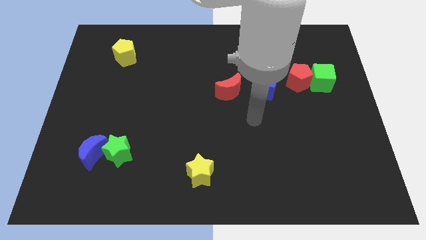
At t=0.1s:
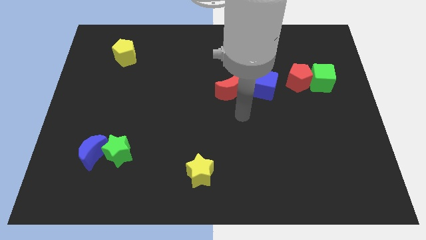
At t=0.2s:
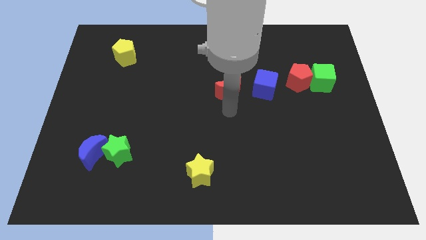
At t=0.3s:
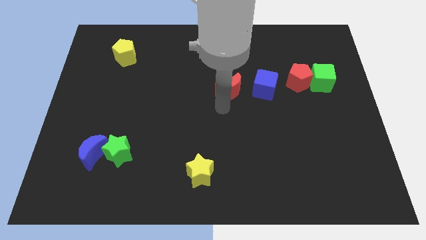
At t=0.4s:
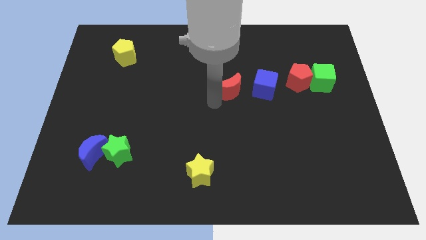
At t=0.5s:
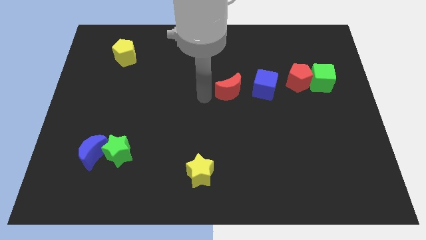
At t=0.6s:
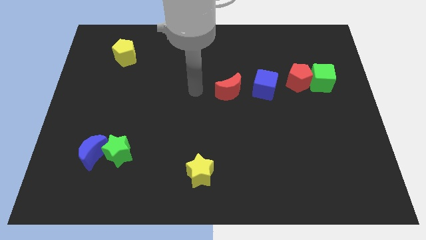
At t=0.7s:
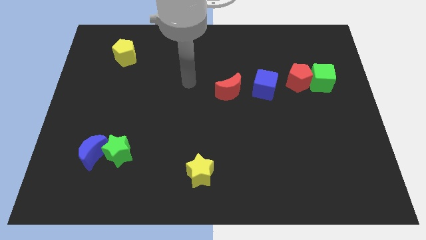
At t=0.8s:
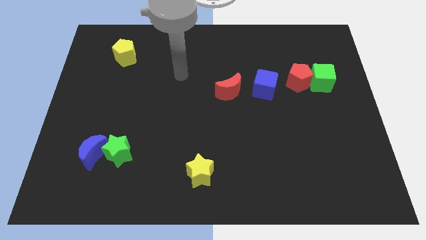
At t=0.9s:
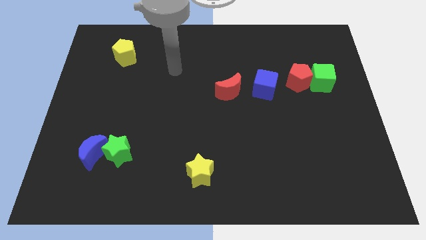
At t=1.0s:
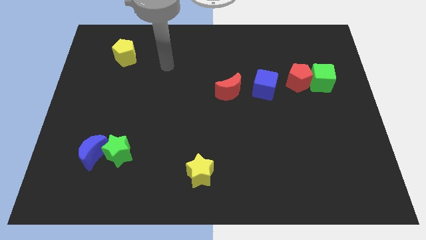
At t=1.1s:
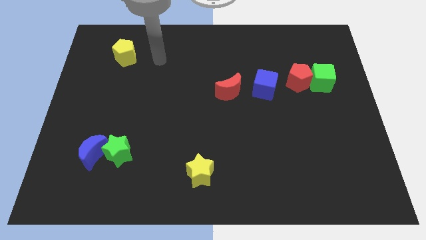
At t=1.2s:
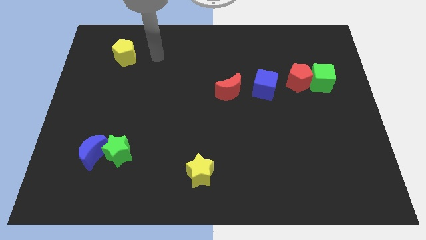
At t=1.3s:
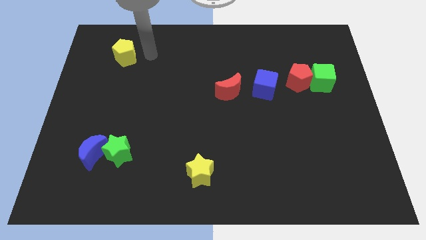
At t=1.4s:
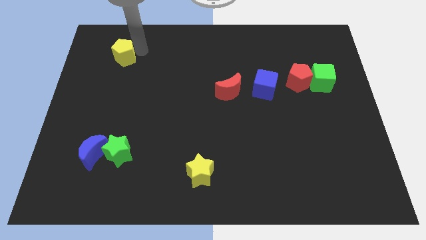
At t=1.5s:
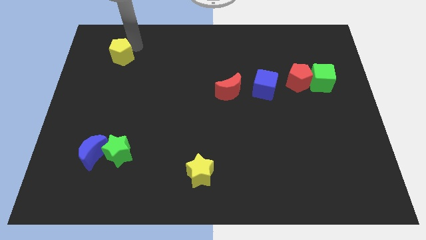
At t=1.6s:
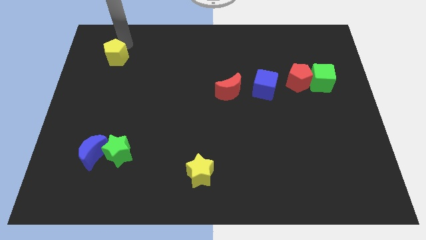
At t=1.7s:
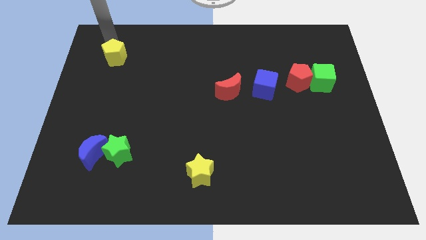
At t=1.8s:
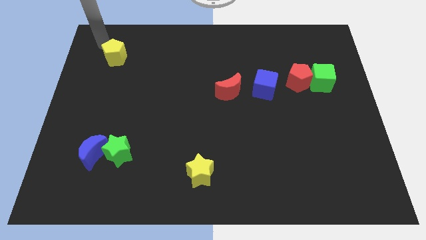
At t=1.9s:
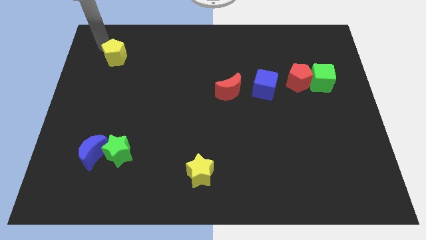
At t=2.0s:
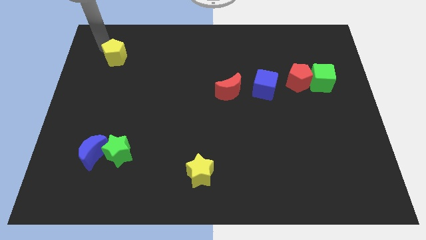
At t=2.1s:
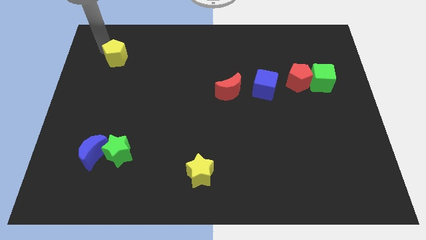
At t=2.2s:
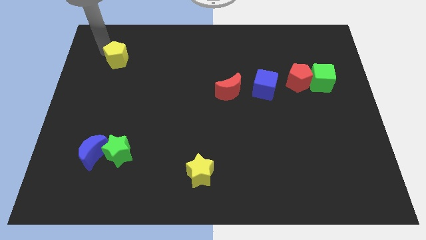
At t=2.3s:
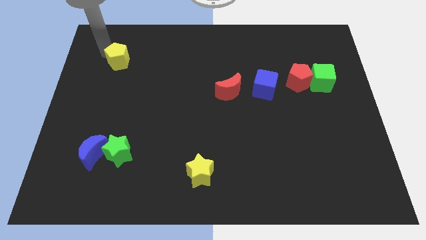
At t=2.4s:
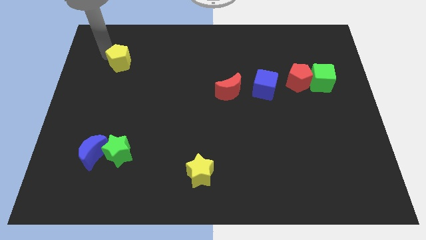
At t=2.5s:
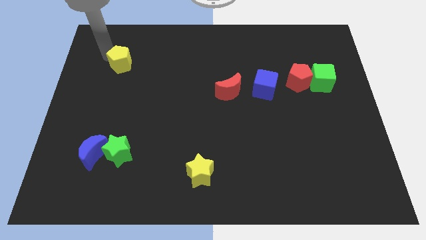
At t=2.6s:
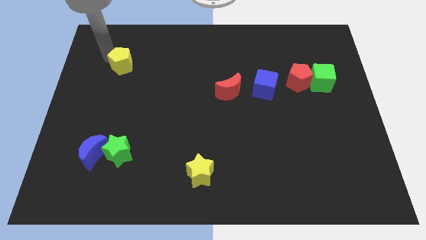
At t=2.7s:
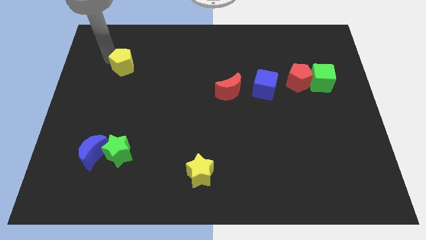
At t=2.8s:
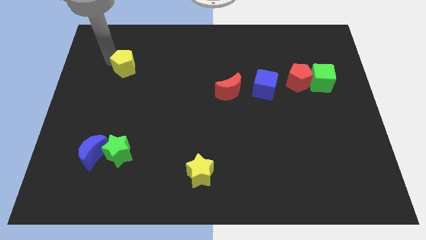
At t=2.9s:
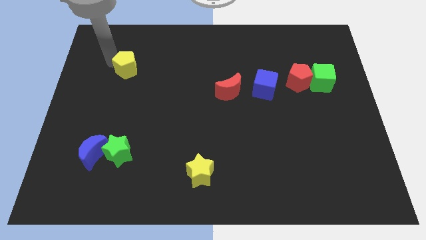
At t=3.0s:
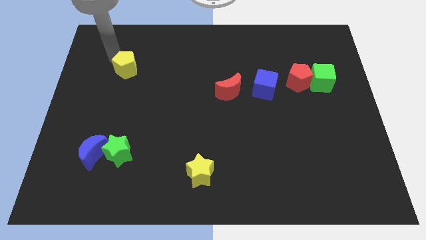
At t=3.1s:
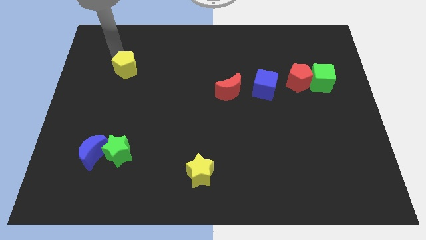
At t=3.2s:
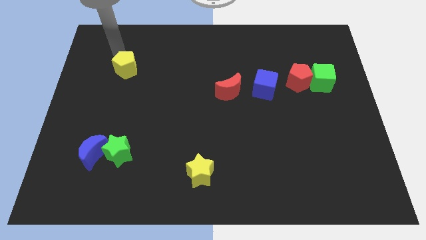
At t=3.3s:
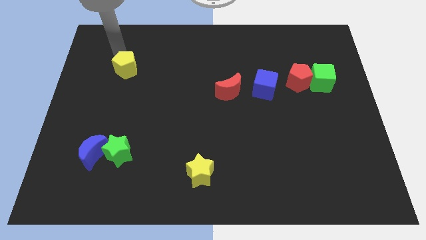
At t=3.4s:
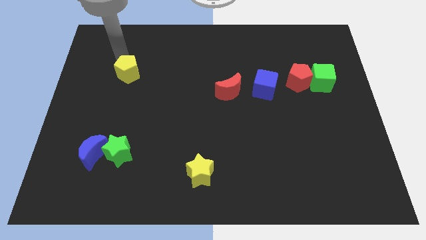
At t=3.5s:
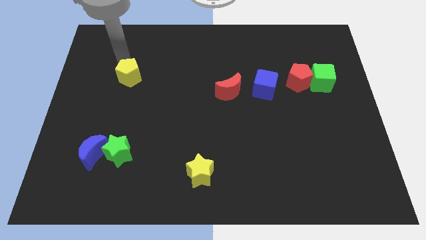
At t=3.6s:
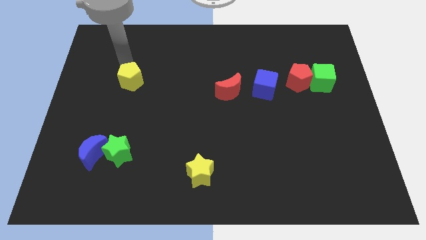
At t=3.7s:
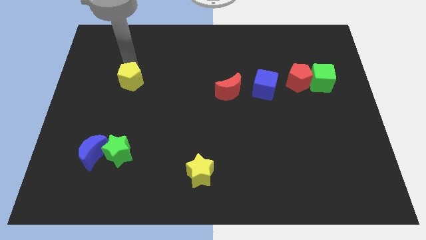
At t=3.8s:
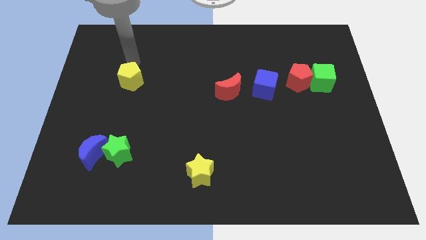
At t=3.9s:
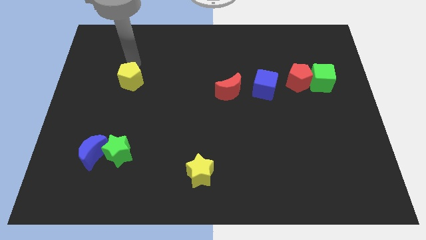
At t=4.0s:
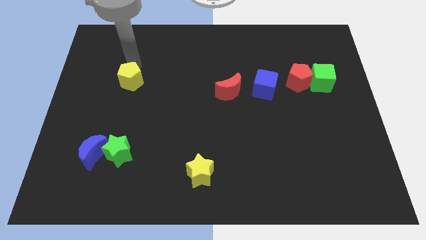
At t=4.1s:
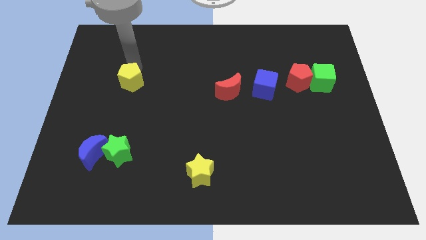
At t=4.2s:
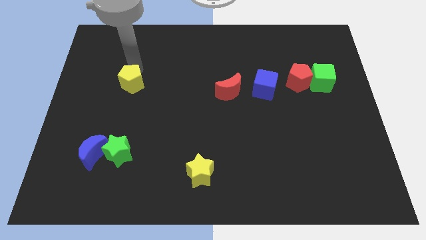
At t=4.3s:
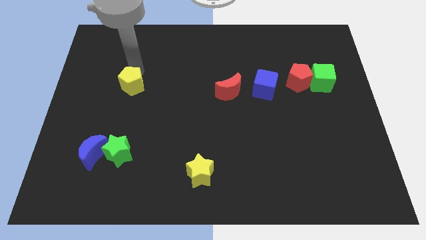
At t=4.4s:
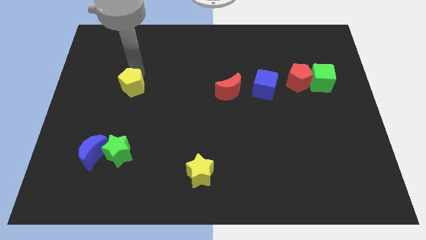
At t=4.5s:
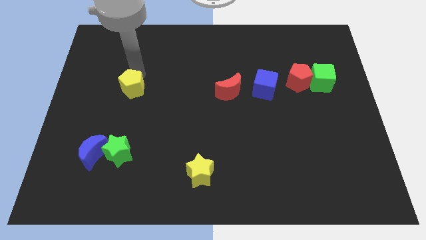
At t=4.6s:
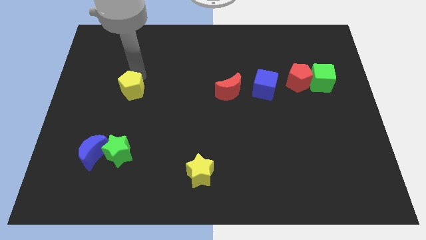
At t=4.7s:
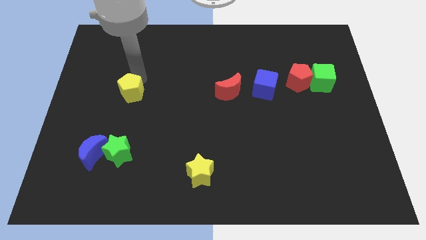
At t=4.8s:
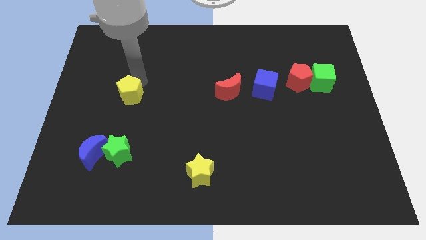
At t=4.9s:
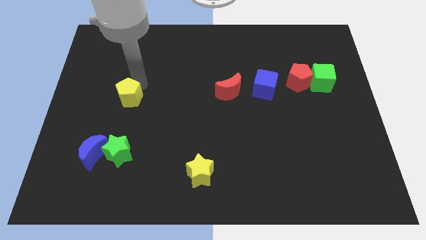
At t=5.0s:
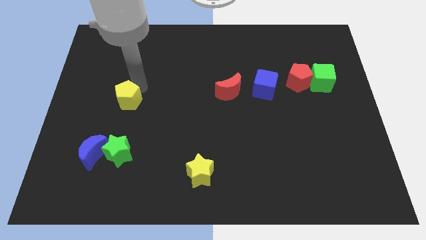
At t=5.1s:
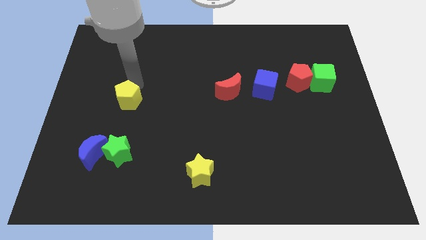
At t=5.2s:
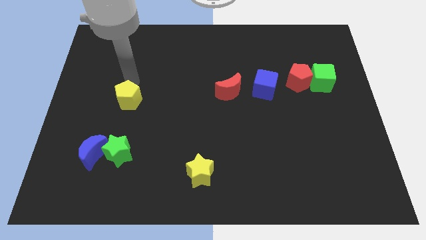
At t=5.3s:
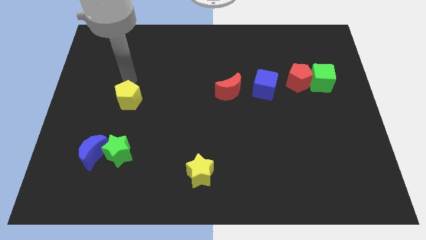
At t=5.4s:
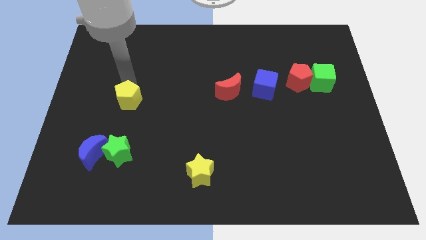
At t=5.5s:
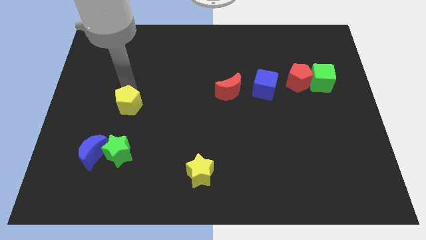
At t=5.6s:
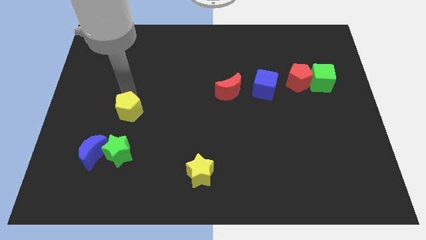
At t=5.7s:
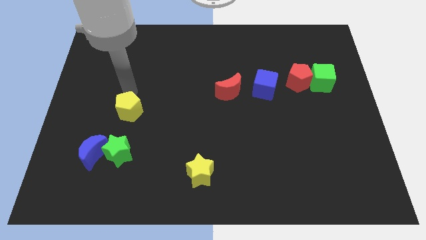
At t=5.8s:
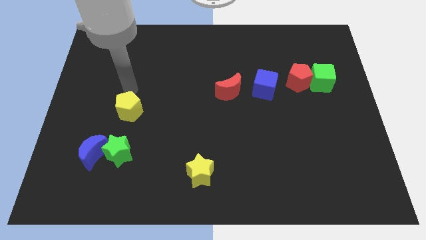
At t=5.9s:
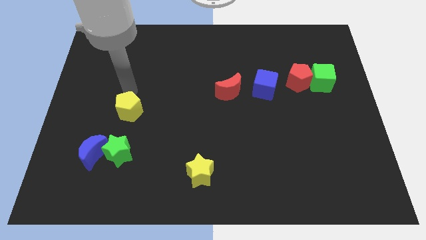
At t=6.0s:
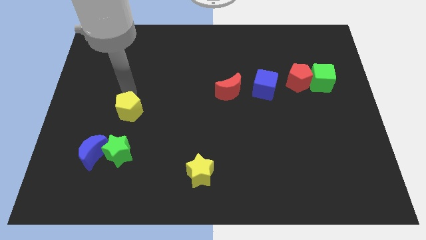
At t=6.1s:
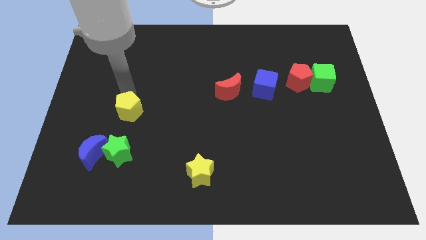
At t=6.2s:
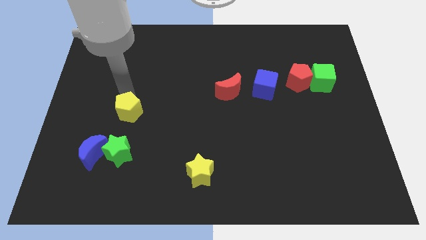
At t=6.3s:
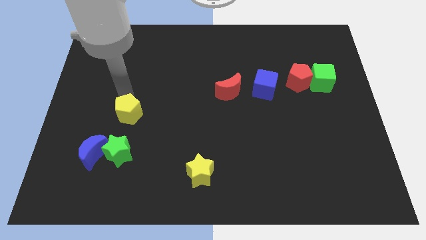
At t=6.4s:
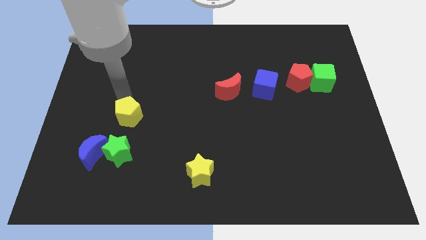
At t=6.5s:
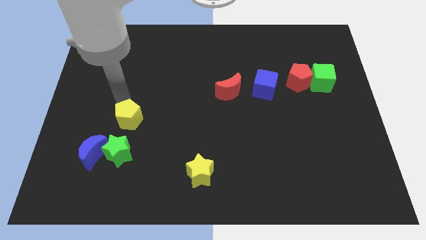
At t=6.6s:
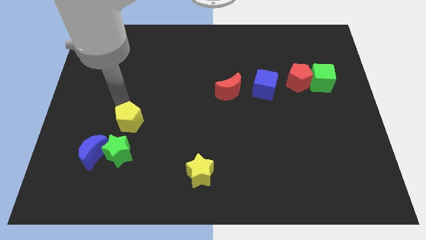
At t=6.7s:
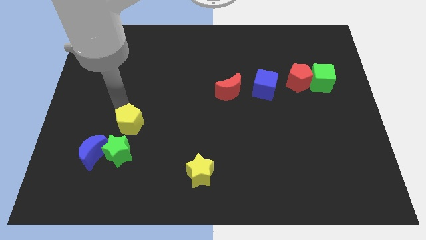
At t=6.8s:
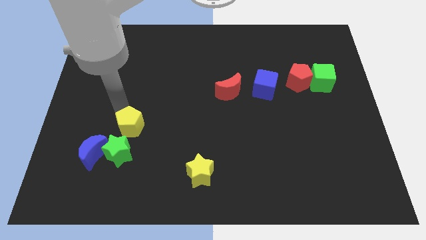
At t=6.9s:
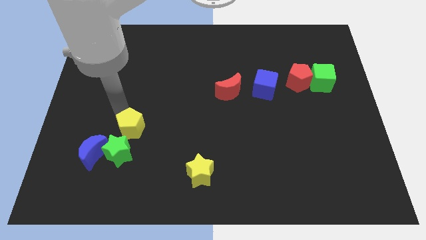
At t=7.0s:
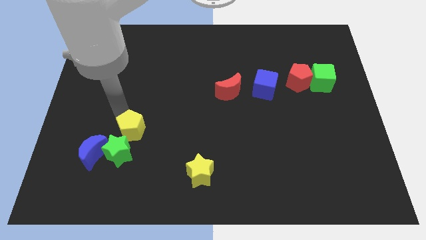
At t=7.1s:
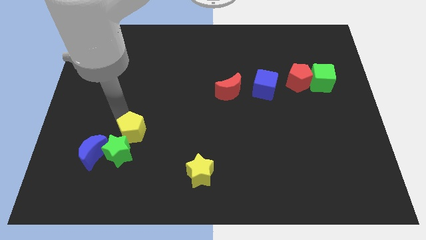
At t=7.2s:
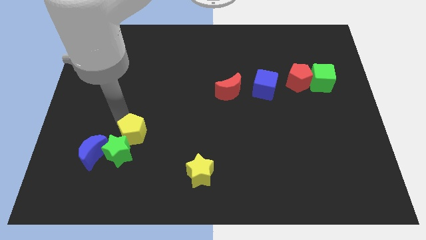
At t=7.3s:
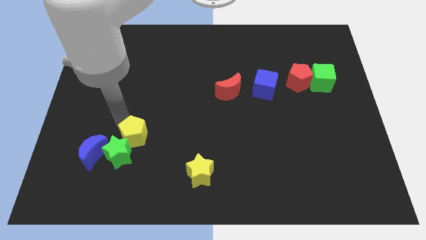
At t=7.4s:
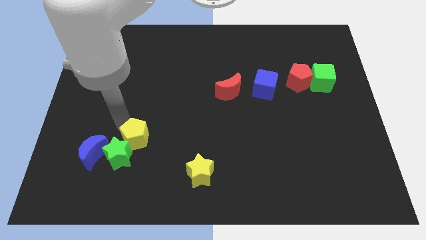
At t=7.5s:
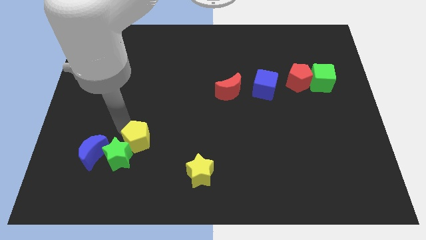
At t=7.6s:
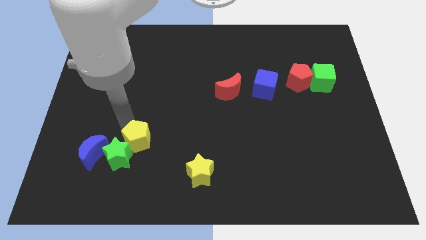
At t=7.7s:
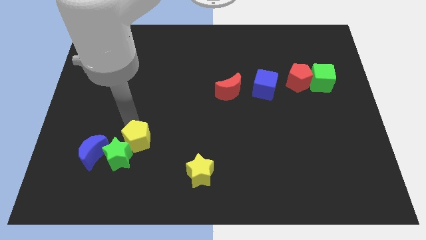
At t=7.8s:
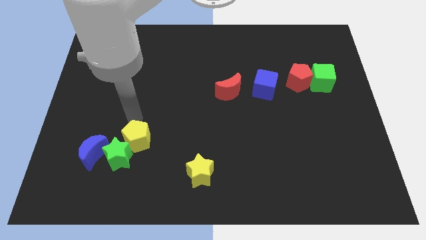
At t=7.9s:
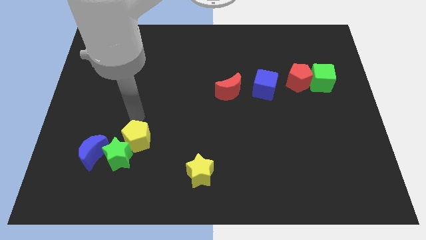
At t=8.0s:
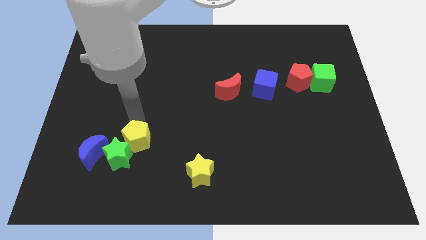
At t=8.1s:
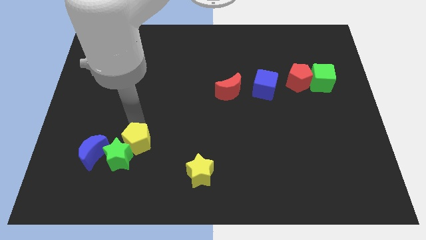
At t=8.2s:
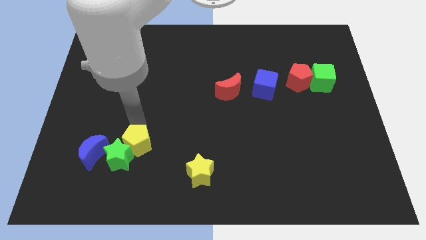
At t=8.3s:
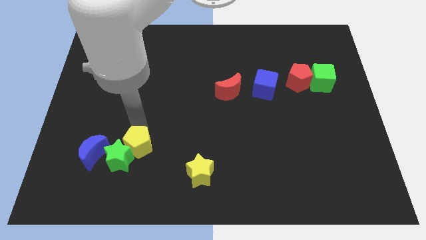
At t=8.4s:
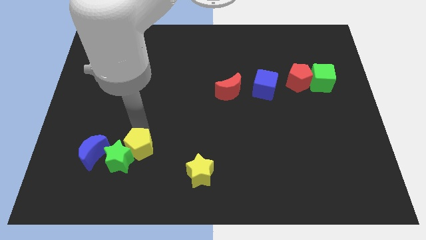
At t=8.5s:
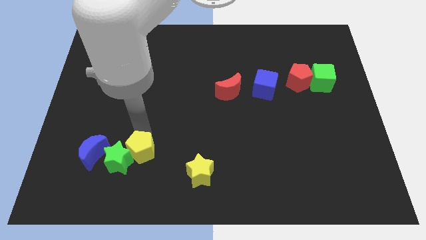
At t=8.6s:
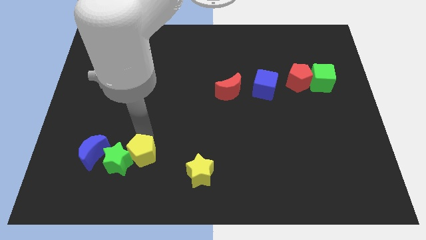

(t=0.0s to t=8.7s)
put the yellow pentagon to the bottom right side of the green star
